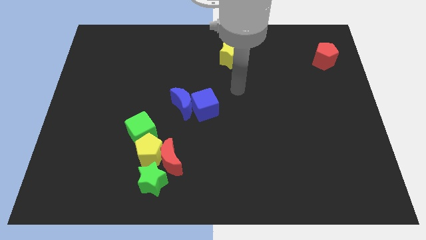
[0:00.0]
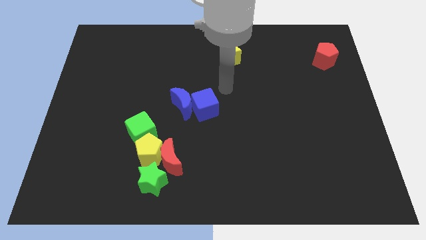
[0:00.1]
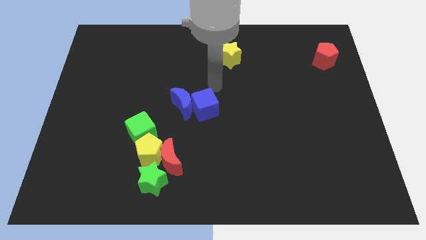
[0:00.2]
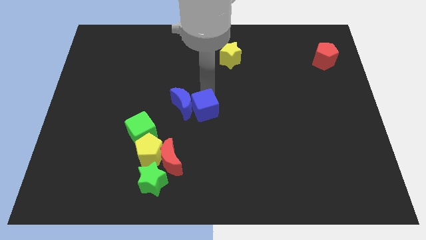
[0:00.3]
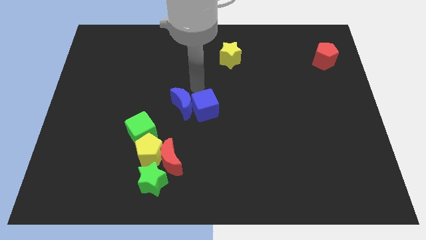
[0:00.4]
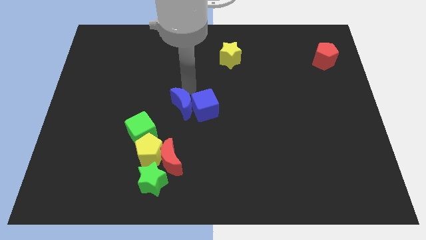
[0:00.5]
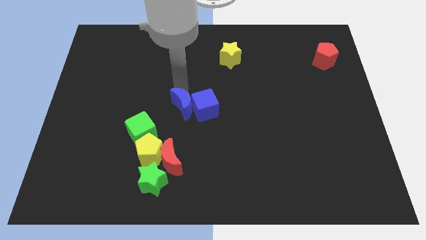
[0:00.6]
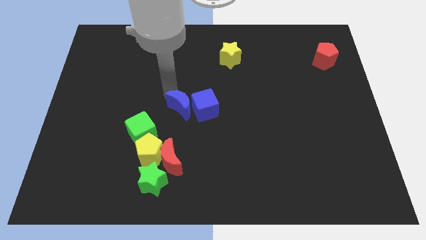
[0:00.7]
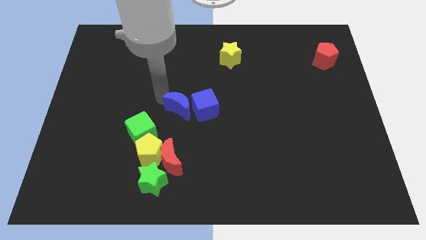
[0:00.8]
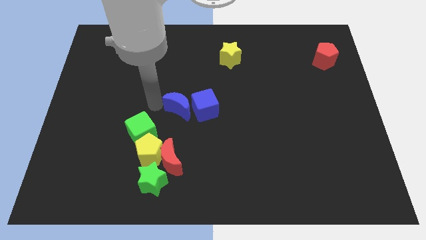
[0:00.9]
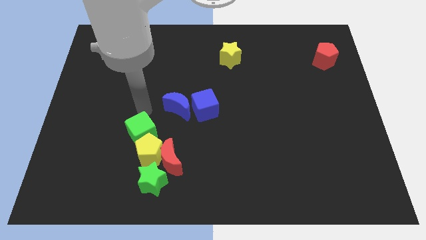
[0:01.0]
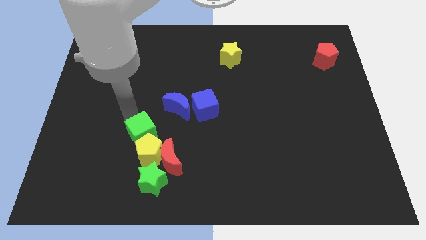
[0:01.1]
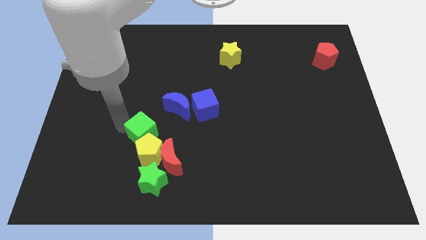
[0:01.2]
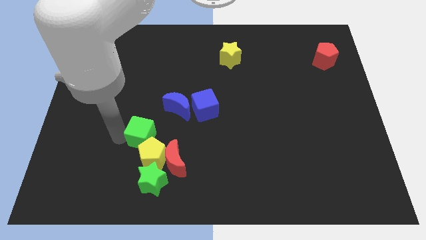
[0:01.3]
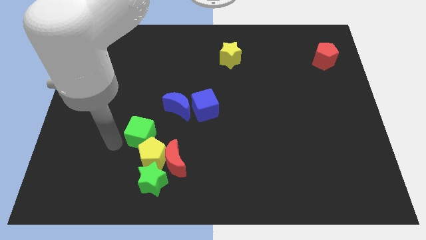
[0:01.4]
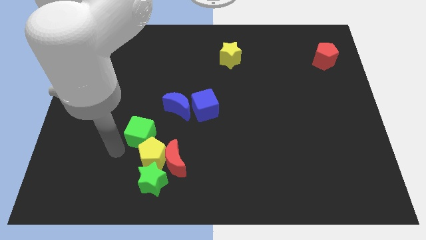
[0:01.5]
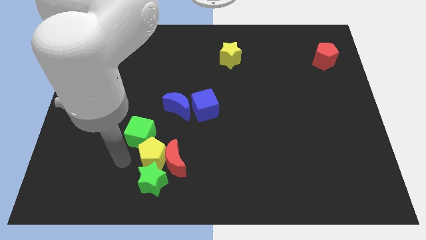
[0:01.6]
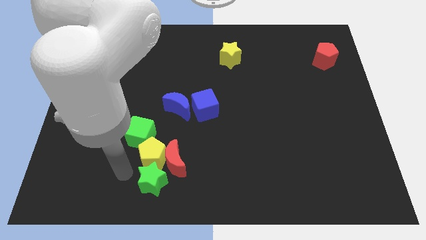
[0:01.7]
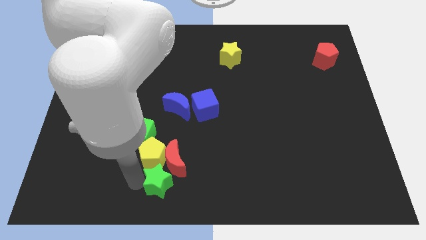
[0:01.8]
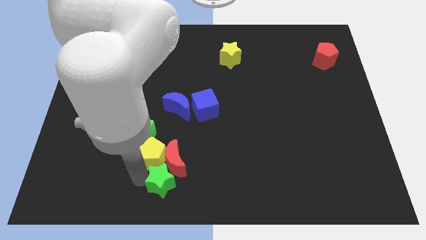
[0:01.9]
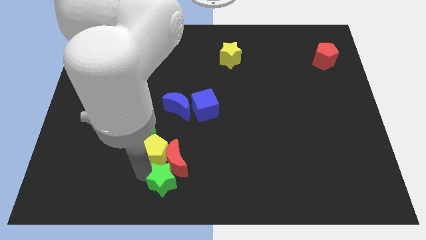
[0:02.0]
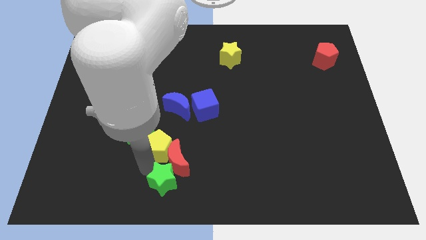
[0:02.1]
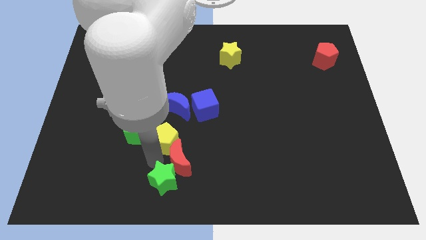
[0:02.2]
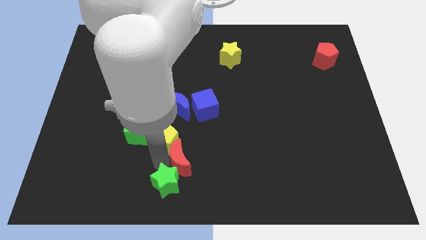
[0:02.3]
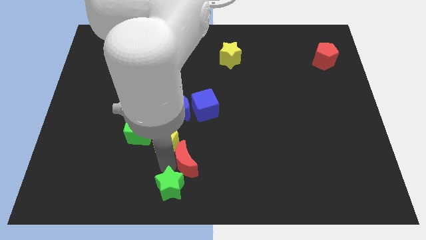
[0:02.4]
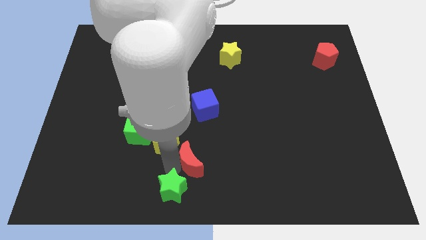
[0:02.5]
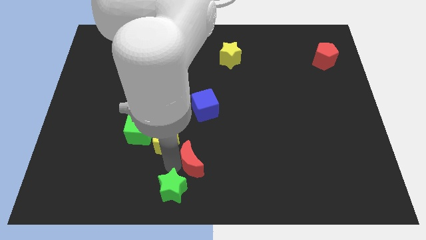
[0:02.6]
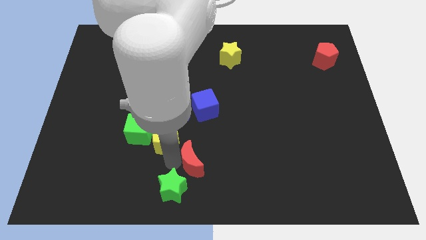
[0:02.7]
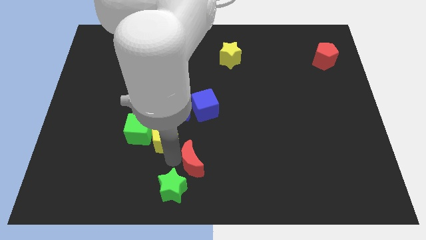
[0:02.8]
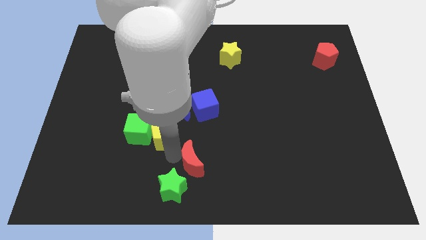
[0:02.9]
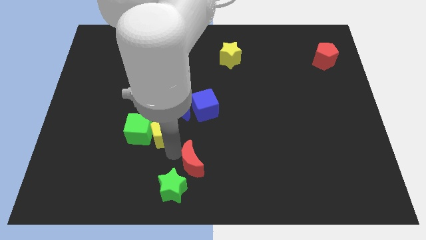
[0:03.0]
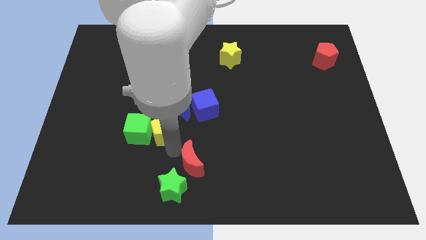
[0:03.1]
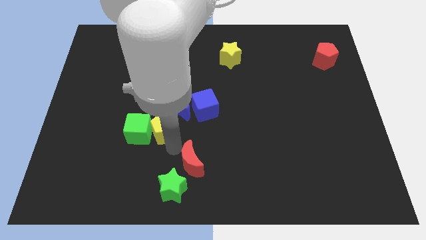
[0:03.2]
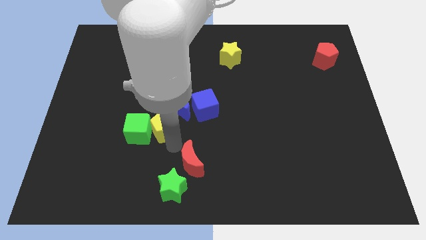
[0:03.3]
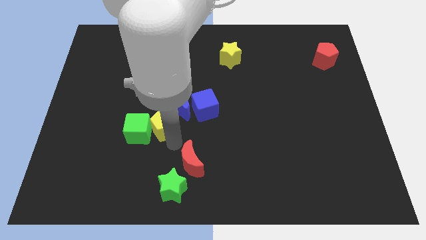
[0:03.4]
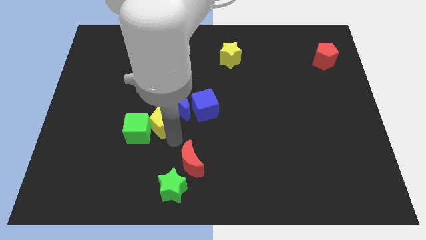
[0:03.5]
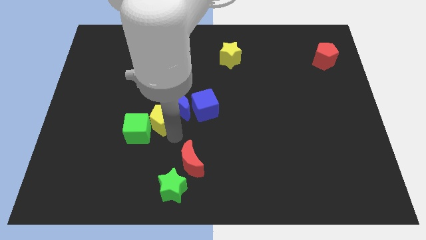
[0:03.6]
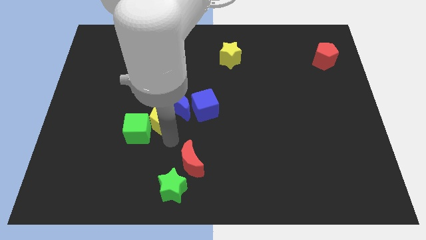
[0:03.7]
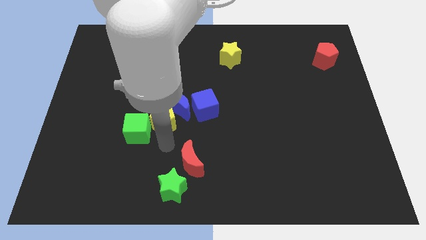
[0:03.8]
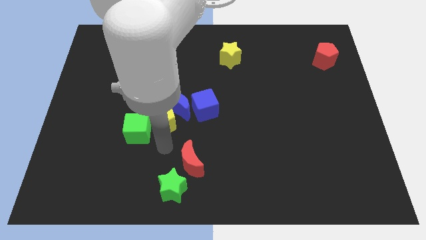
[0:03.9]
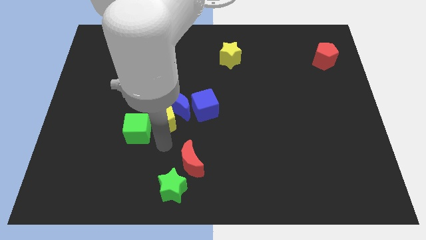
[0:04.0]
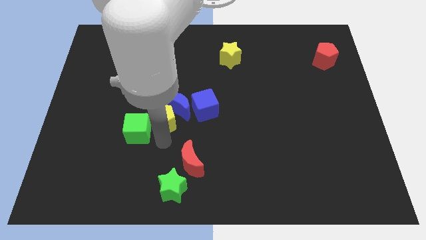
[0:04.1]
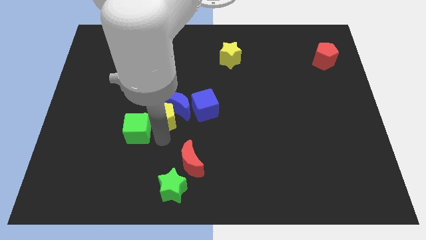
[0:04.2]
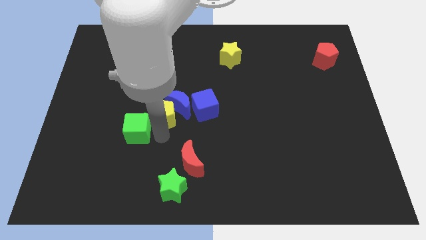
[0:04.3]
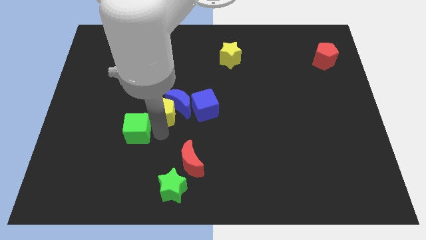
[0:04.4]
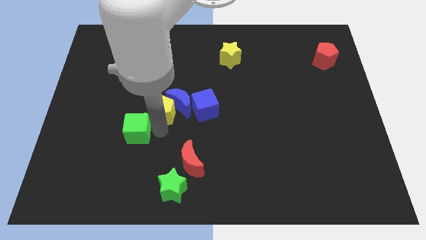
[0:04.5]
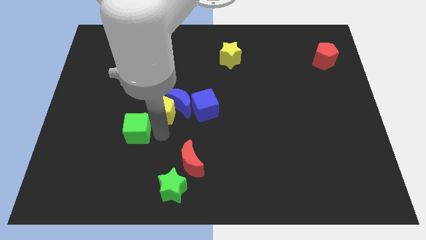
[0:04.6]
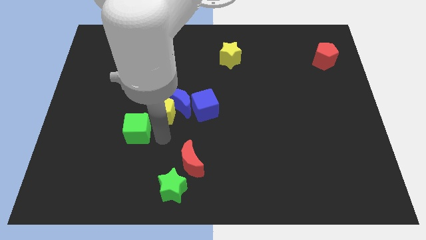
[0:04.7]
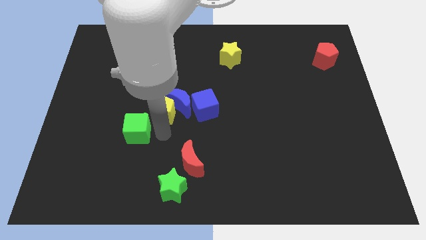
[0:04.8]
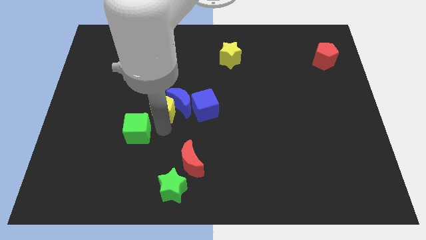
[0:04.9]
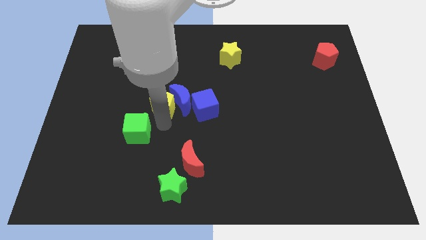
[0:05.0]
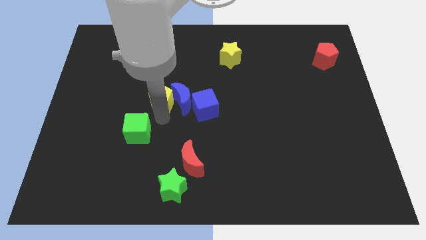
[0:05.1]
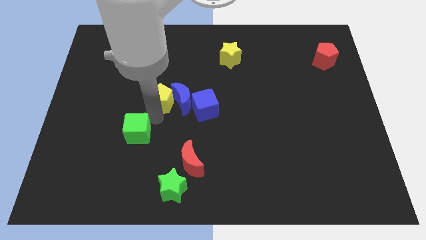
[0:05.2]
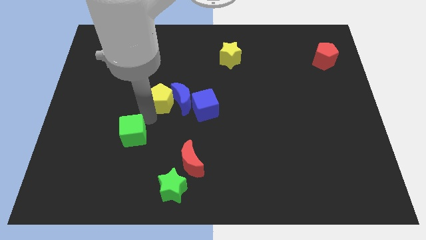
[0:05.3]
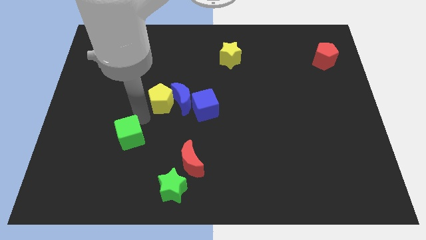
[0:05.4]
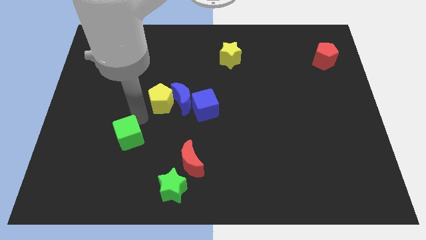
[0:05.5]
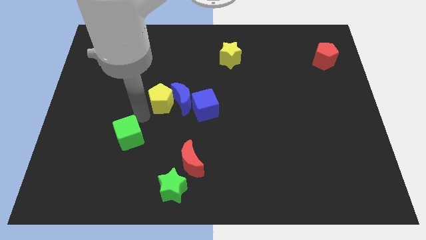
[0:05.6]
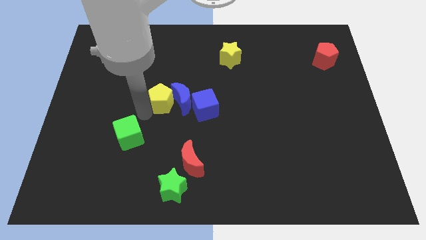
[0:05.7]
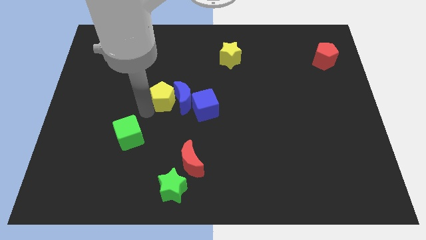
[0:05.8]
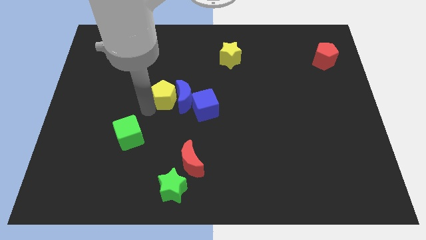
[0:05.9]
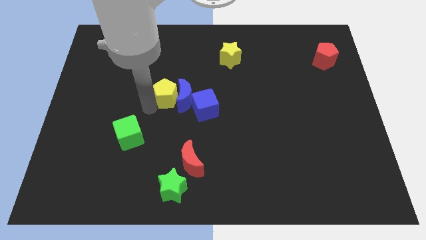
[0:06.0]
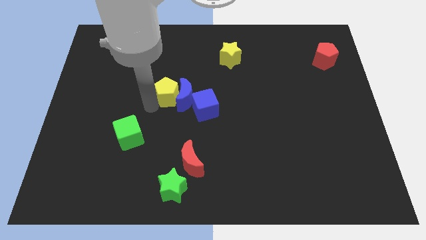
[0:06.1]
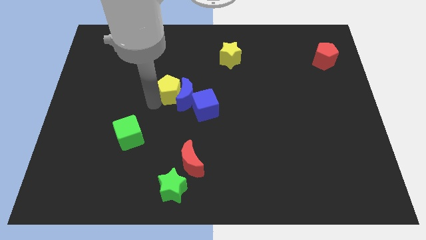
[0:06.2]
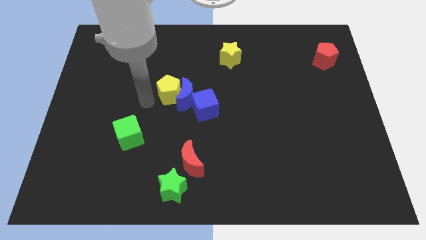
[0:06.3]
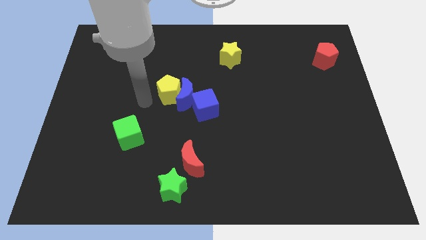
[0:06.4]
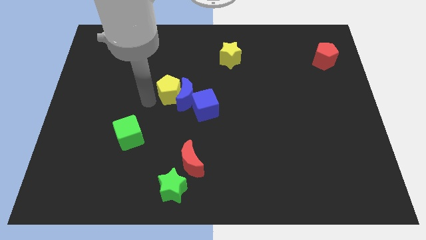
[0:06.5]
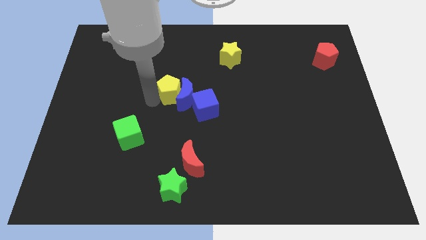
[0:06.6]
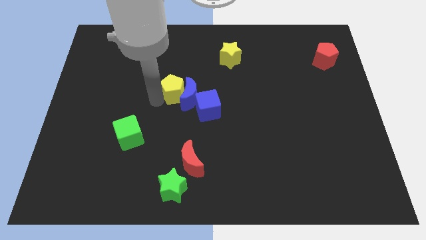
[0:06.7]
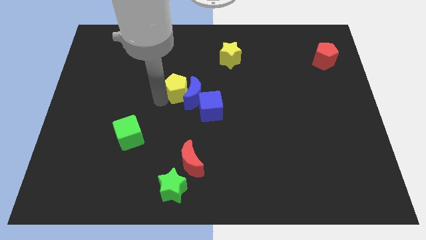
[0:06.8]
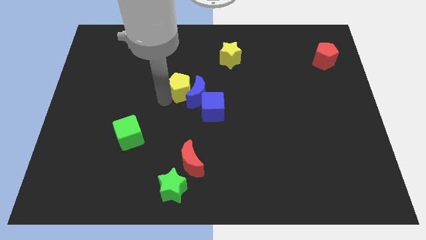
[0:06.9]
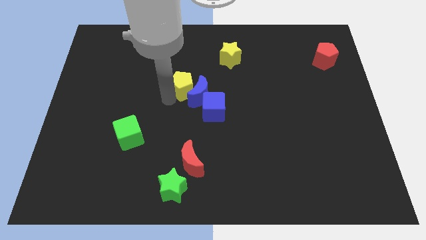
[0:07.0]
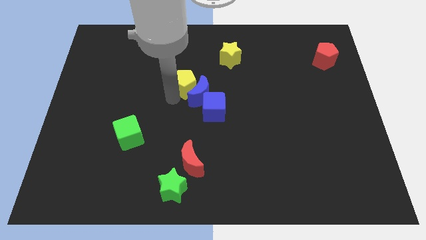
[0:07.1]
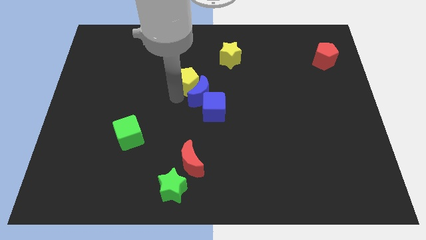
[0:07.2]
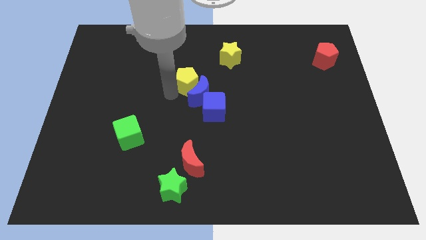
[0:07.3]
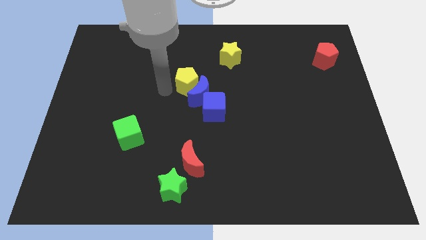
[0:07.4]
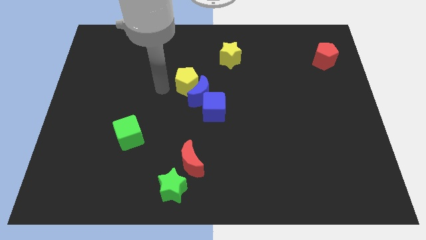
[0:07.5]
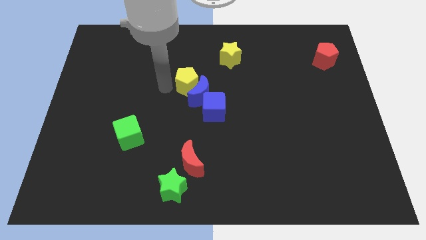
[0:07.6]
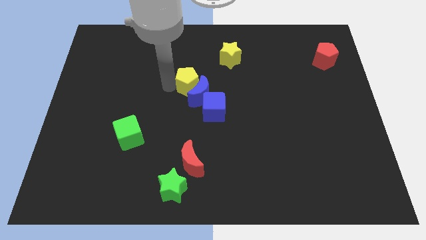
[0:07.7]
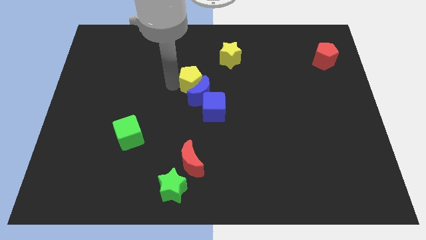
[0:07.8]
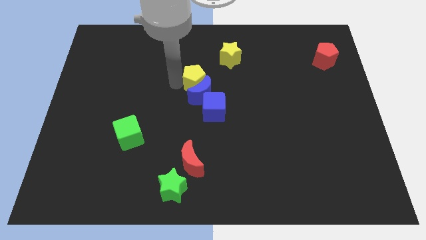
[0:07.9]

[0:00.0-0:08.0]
move the yellow pentagon to the top right of the blue moon
